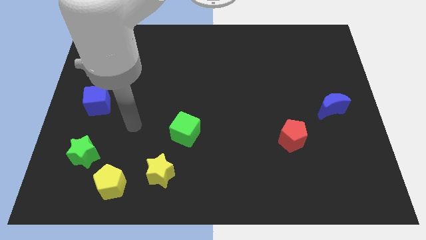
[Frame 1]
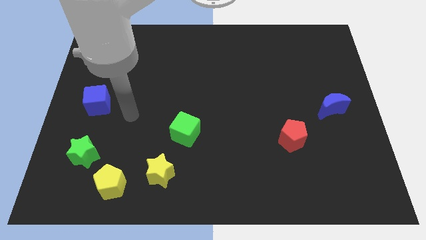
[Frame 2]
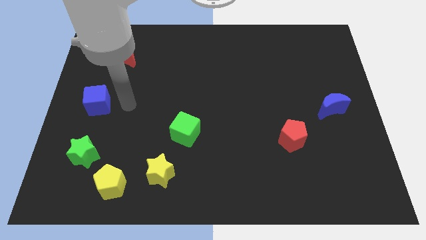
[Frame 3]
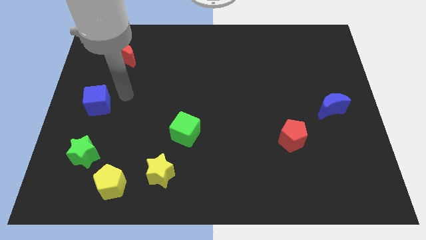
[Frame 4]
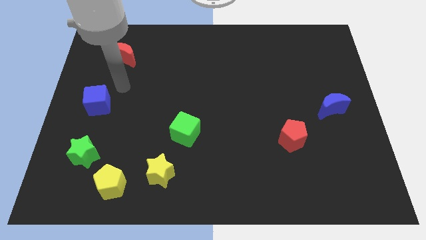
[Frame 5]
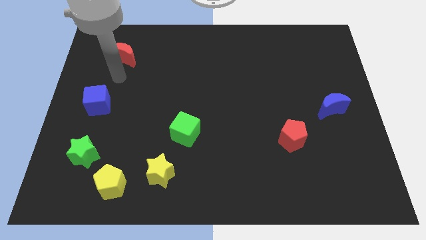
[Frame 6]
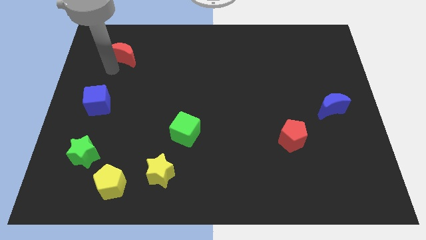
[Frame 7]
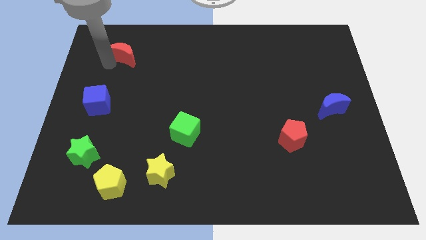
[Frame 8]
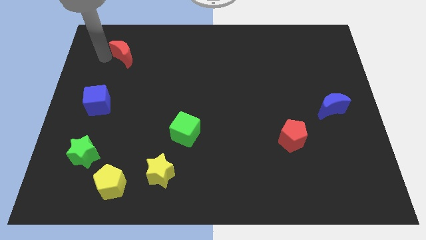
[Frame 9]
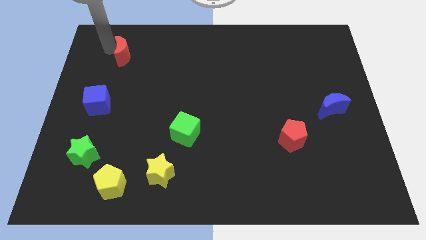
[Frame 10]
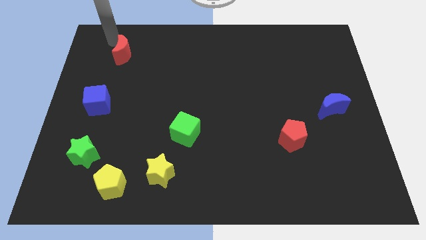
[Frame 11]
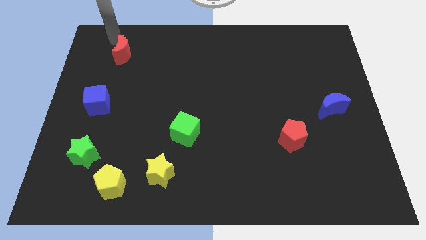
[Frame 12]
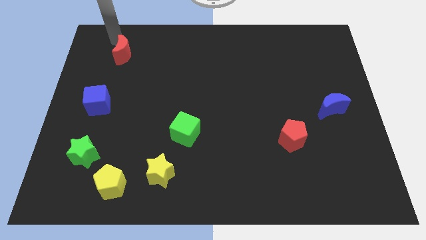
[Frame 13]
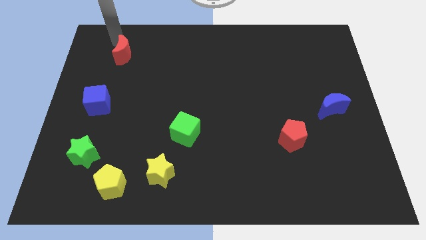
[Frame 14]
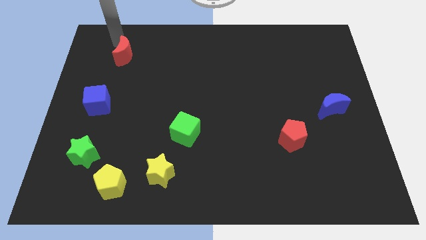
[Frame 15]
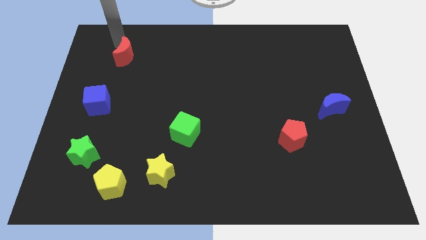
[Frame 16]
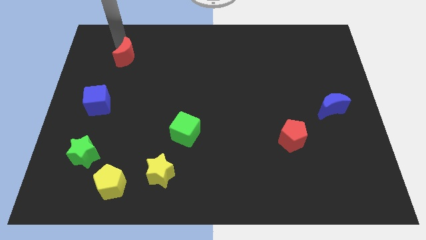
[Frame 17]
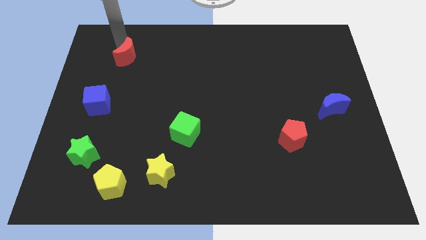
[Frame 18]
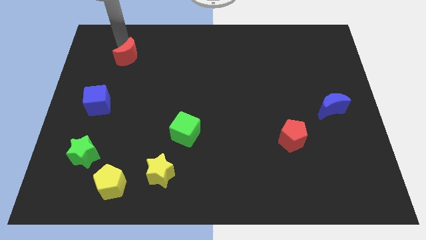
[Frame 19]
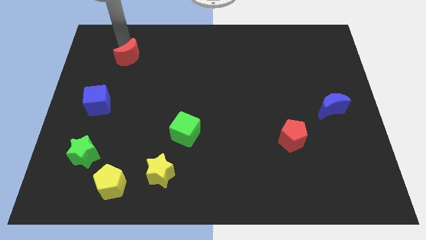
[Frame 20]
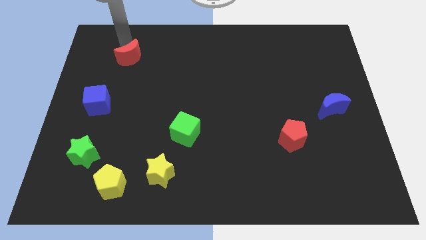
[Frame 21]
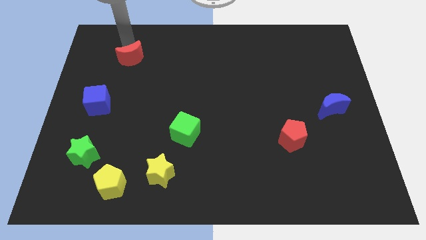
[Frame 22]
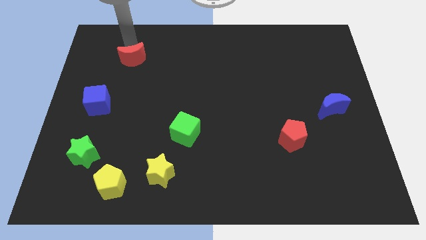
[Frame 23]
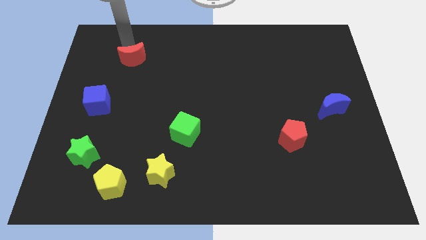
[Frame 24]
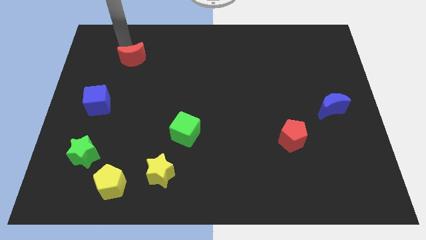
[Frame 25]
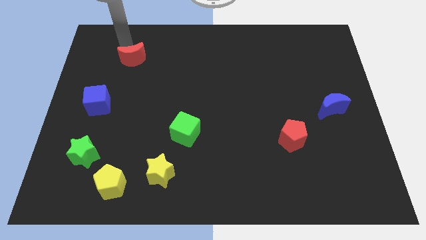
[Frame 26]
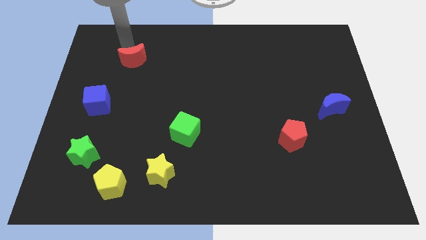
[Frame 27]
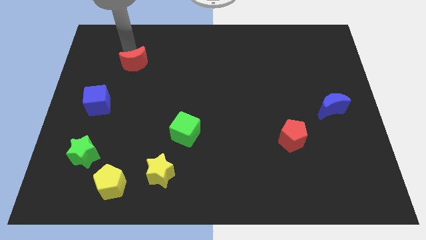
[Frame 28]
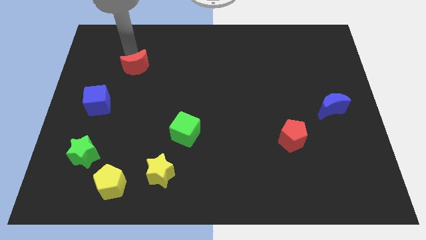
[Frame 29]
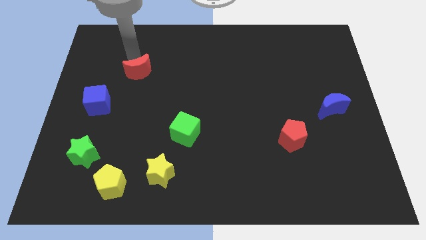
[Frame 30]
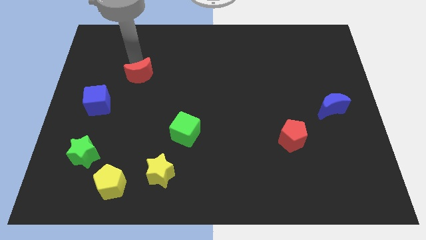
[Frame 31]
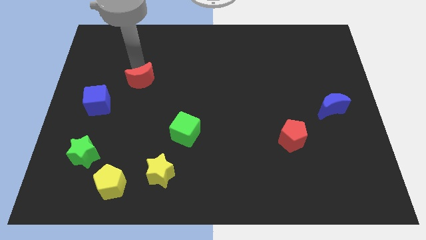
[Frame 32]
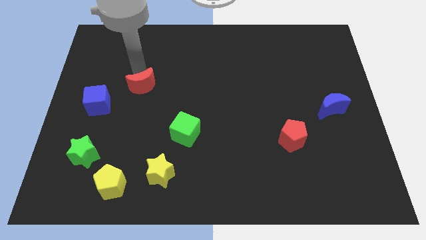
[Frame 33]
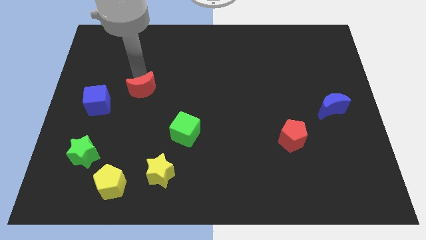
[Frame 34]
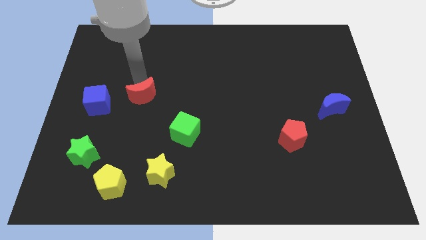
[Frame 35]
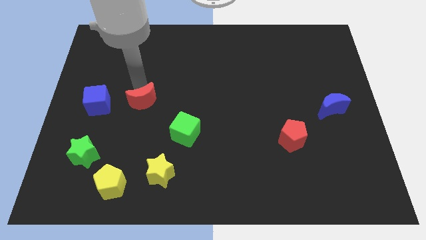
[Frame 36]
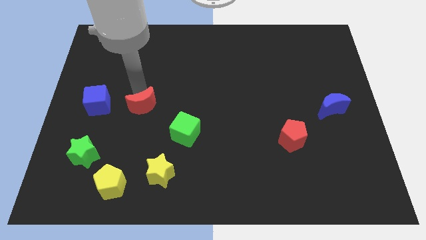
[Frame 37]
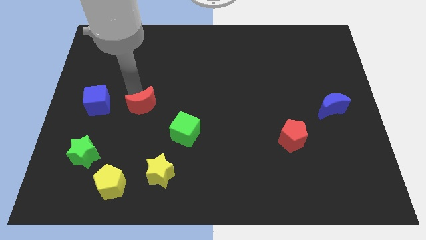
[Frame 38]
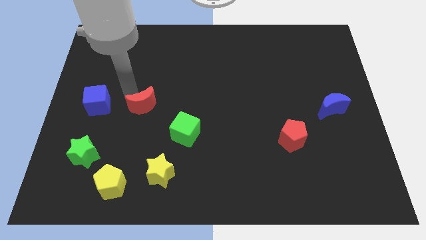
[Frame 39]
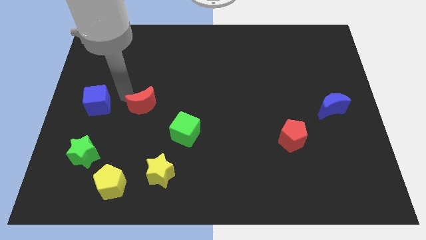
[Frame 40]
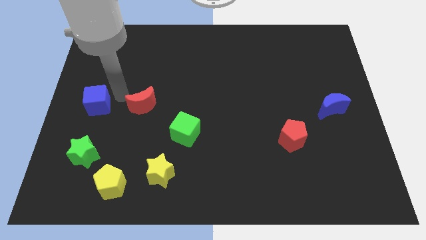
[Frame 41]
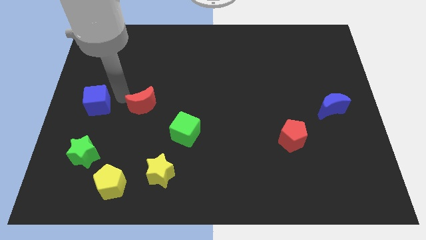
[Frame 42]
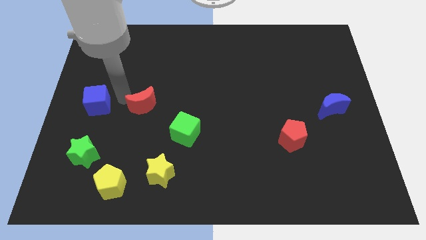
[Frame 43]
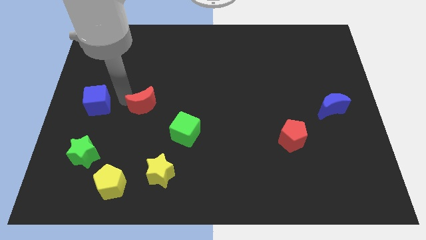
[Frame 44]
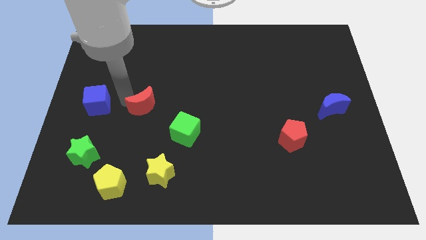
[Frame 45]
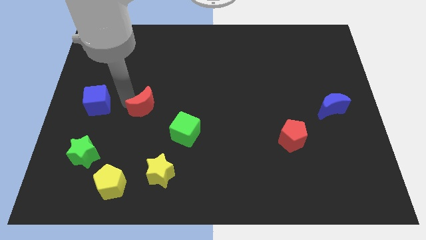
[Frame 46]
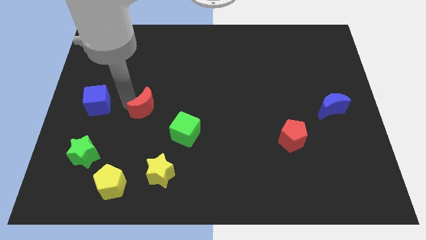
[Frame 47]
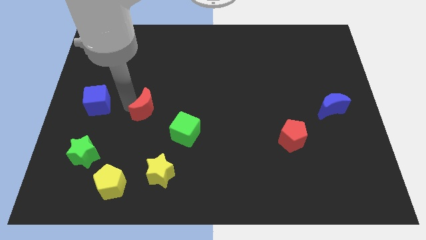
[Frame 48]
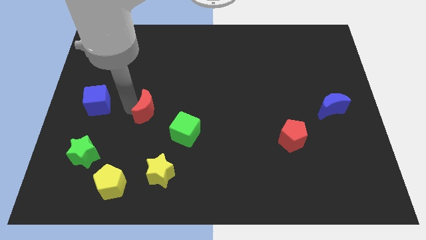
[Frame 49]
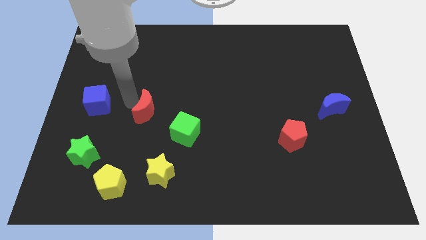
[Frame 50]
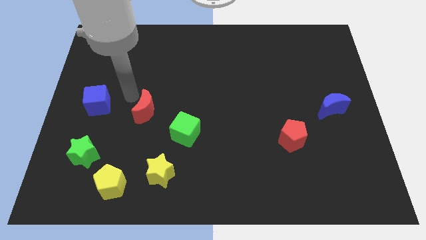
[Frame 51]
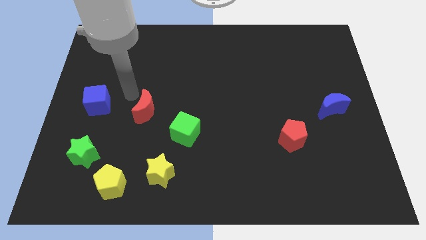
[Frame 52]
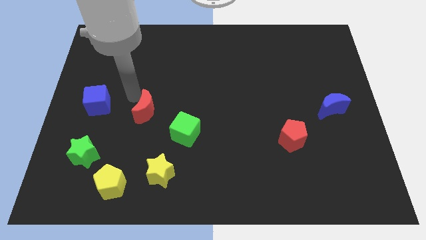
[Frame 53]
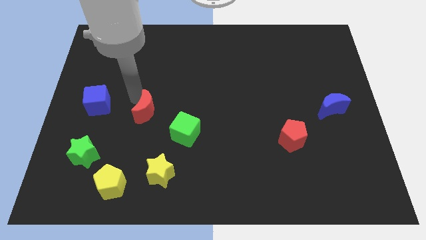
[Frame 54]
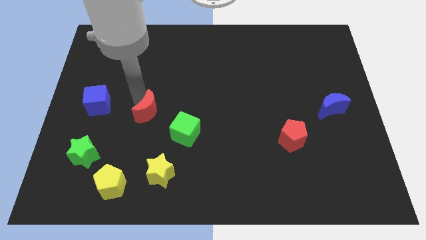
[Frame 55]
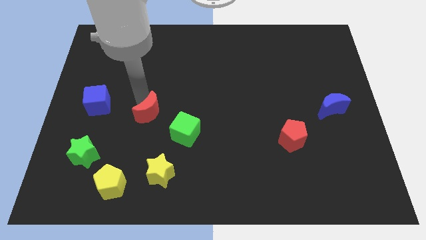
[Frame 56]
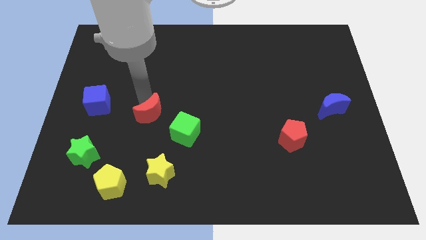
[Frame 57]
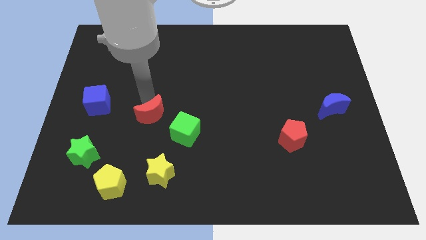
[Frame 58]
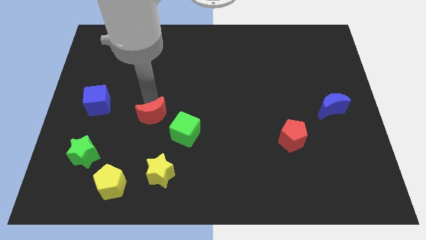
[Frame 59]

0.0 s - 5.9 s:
push the red moon to the top of the yellow star

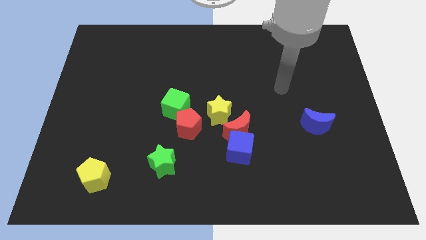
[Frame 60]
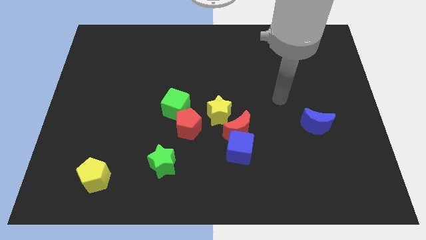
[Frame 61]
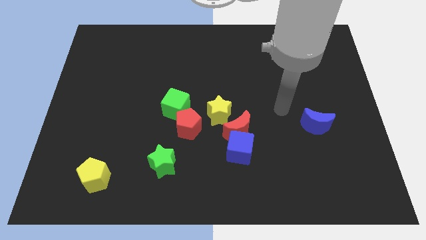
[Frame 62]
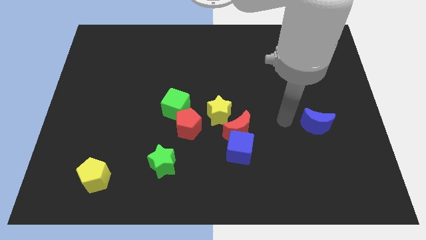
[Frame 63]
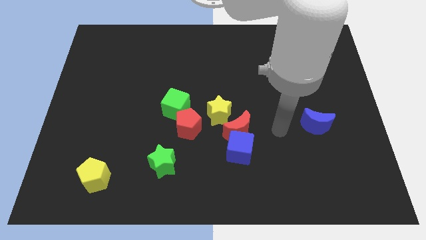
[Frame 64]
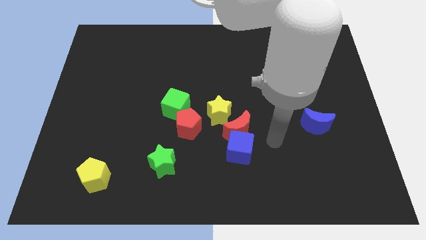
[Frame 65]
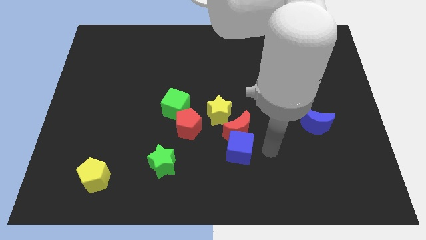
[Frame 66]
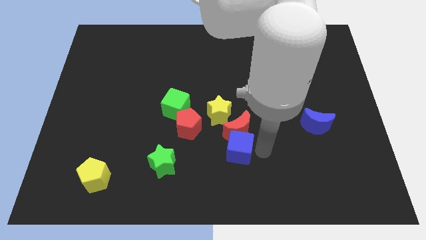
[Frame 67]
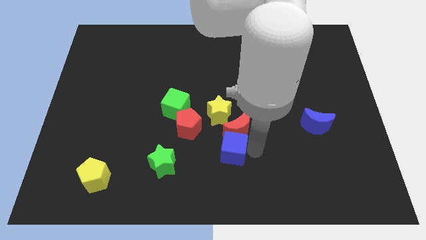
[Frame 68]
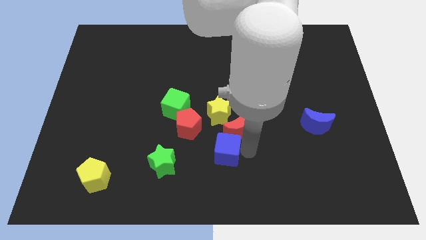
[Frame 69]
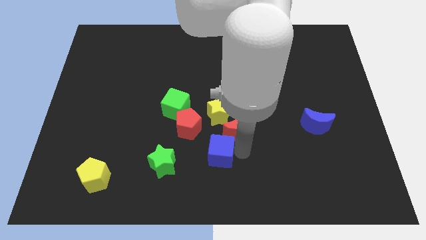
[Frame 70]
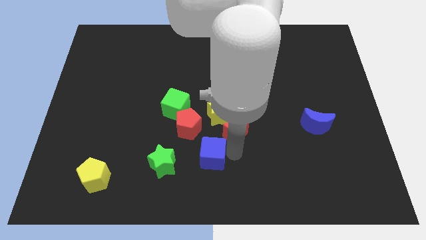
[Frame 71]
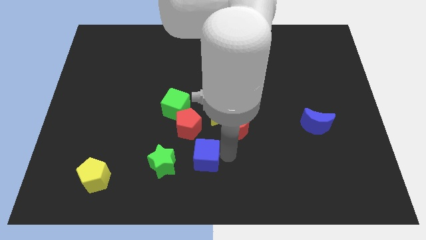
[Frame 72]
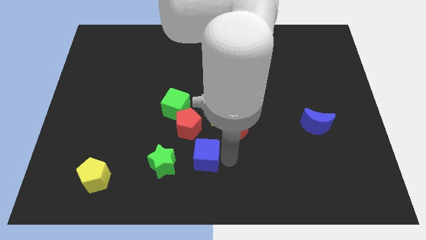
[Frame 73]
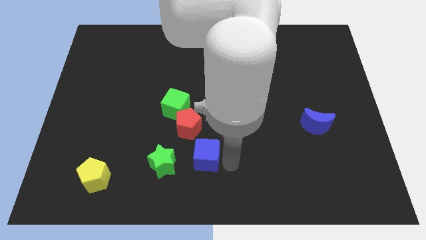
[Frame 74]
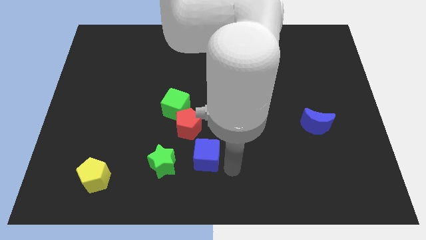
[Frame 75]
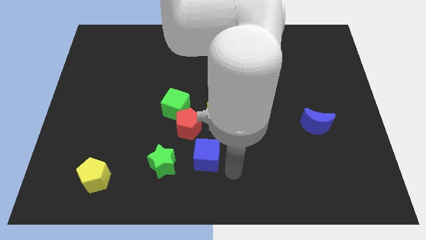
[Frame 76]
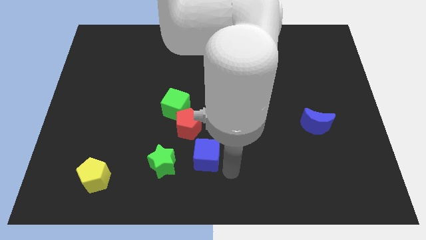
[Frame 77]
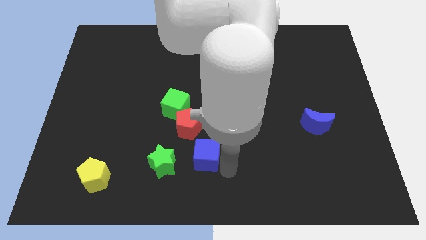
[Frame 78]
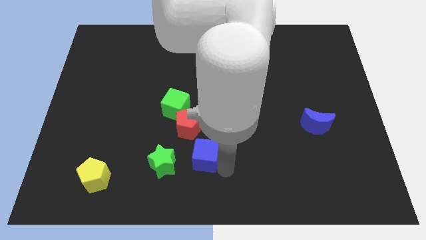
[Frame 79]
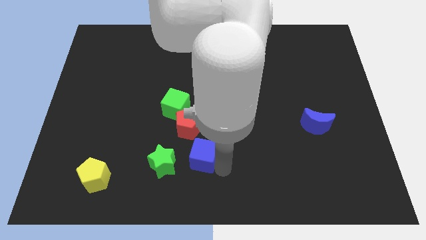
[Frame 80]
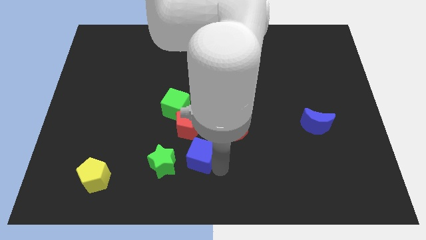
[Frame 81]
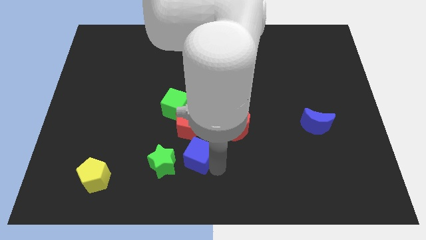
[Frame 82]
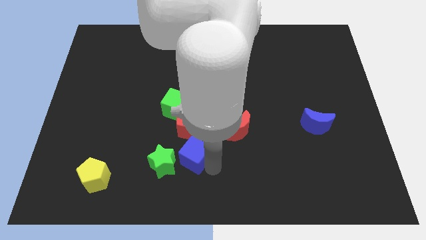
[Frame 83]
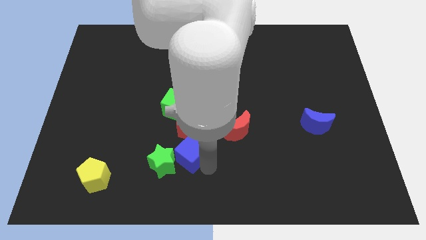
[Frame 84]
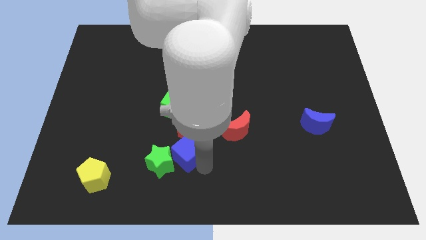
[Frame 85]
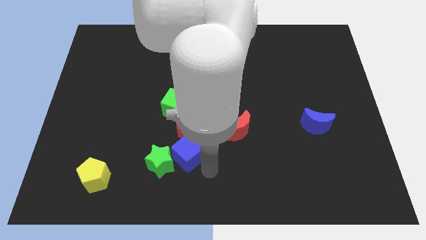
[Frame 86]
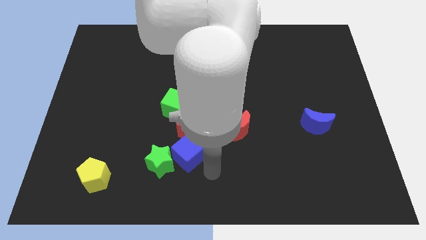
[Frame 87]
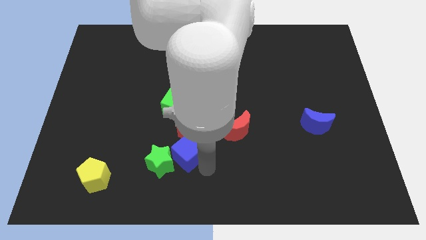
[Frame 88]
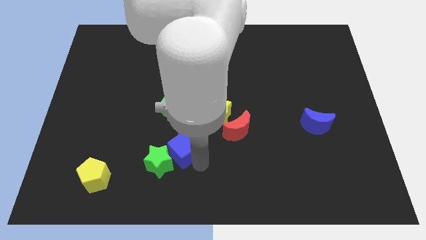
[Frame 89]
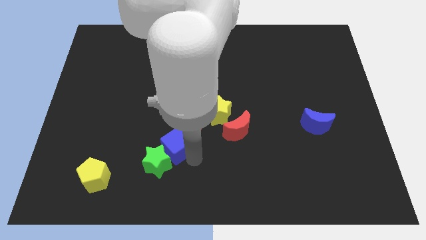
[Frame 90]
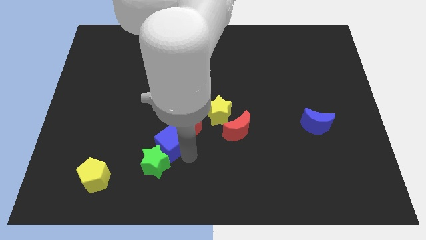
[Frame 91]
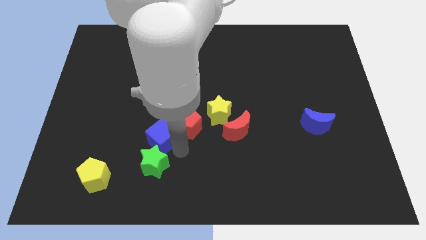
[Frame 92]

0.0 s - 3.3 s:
move the blue cube to the left of the red pentagon
